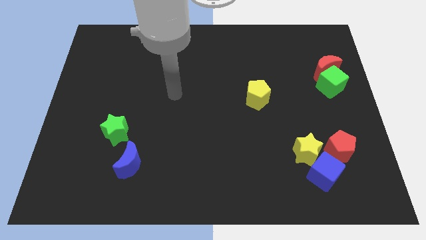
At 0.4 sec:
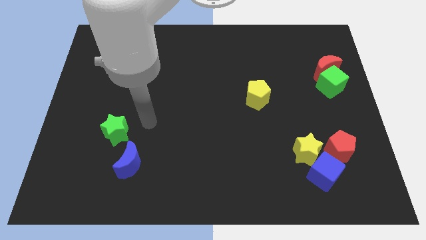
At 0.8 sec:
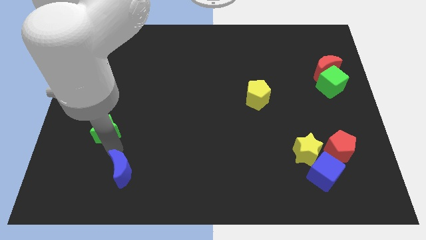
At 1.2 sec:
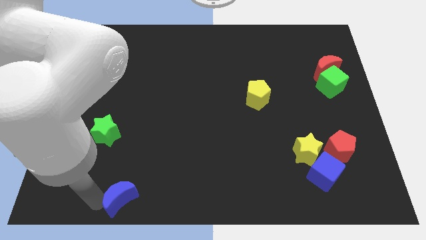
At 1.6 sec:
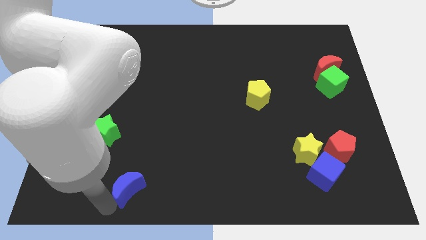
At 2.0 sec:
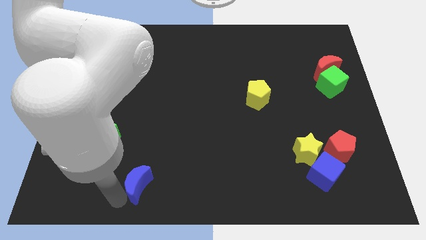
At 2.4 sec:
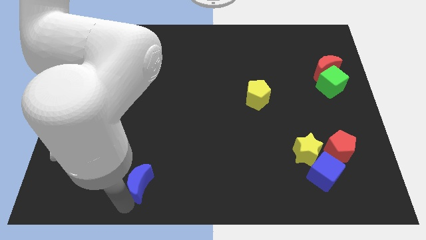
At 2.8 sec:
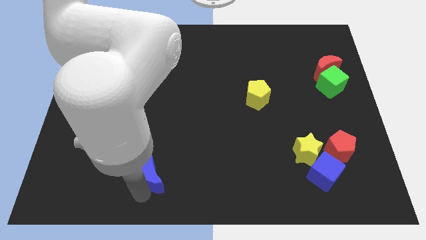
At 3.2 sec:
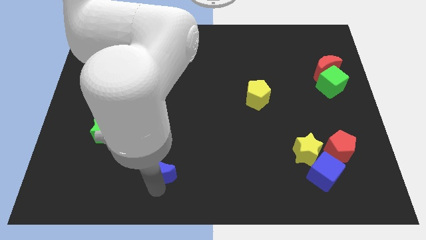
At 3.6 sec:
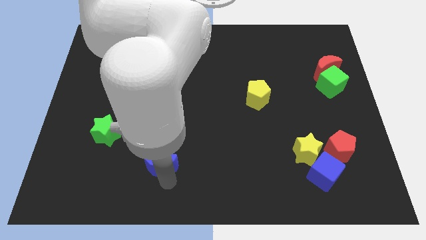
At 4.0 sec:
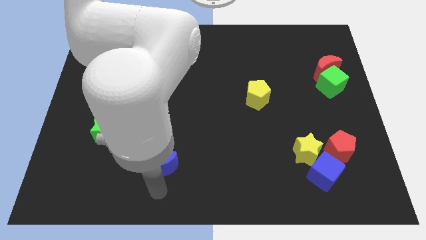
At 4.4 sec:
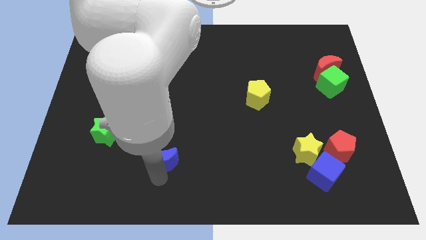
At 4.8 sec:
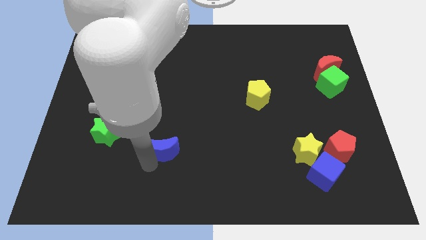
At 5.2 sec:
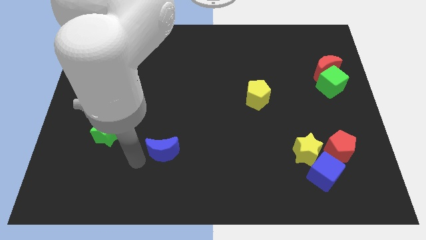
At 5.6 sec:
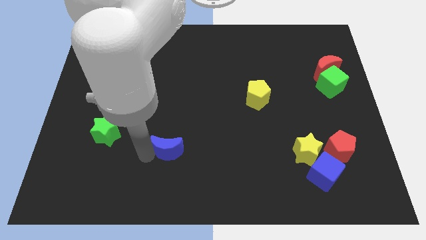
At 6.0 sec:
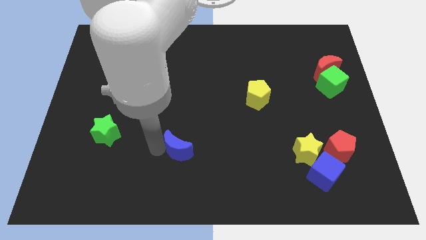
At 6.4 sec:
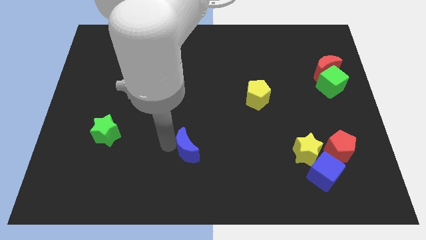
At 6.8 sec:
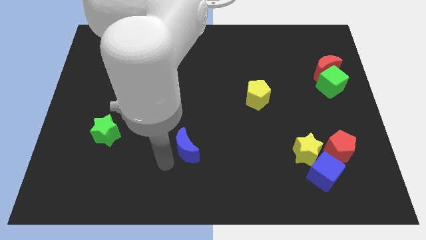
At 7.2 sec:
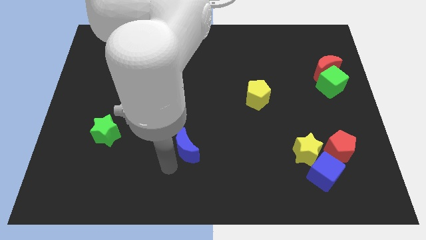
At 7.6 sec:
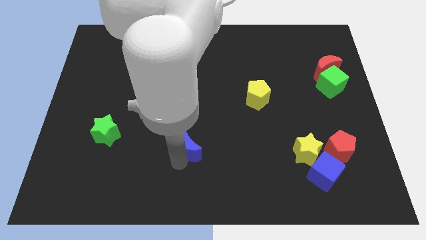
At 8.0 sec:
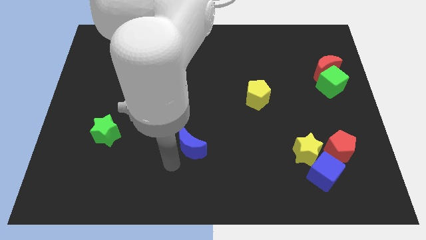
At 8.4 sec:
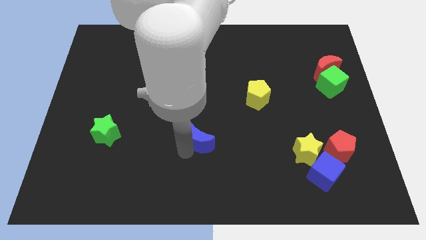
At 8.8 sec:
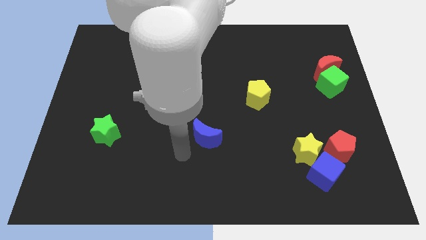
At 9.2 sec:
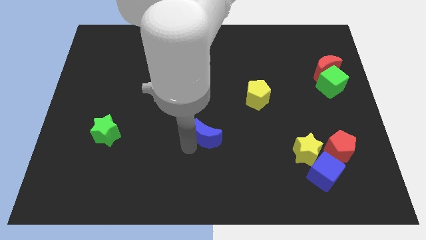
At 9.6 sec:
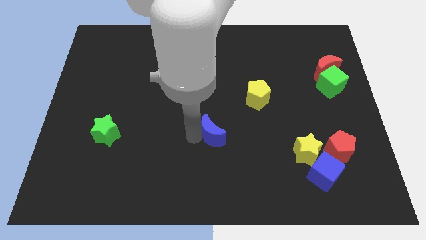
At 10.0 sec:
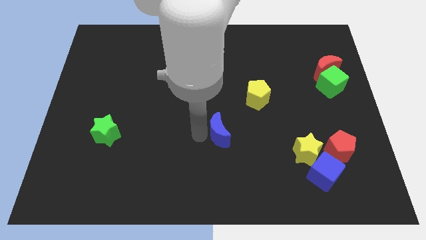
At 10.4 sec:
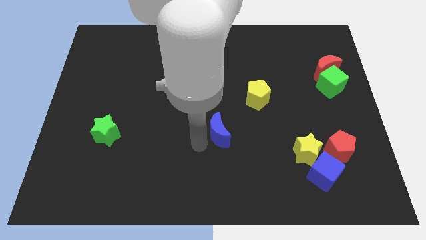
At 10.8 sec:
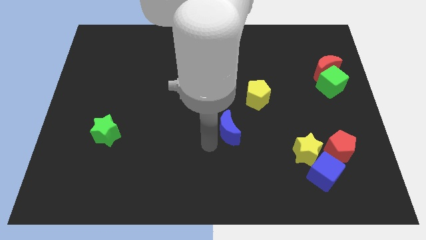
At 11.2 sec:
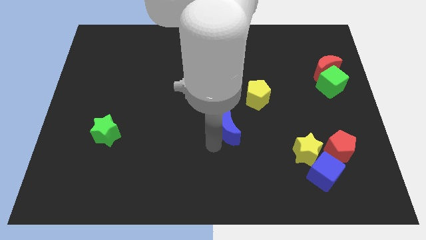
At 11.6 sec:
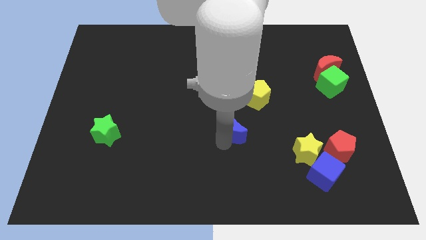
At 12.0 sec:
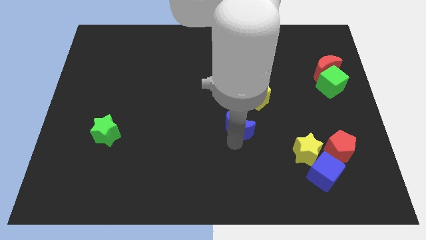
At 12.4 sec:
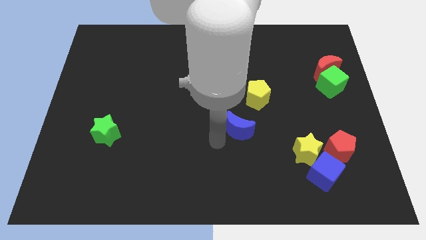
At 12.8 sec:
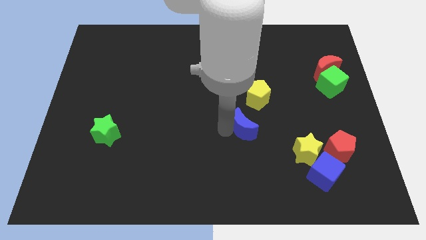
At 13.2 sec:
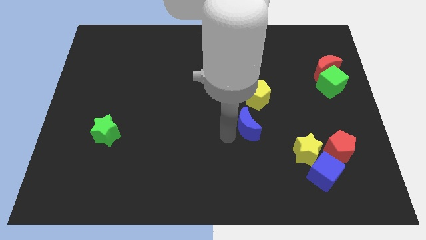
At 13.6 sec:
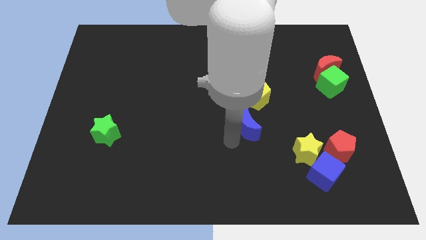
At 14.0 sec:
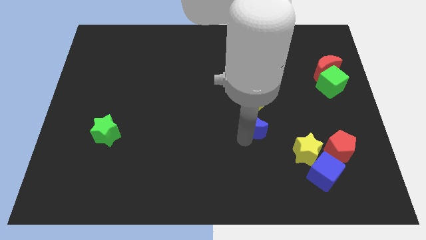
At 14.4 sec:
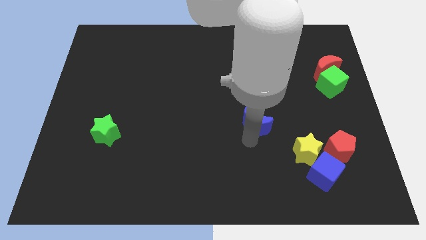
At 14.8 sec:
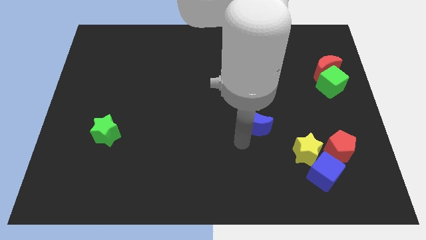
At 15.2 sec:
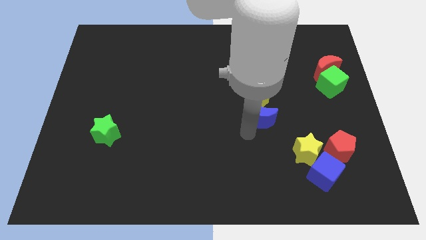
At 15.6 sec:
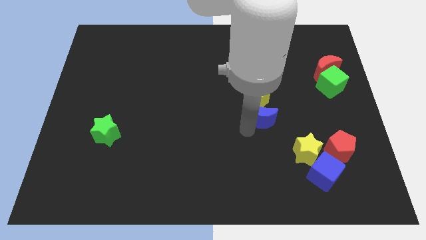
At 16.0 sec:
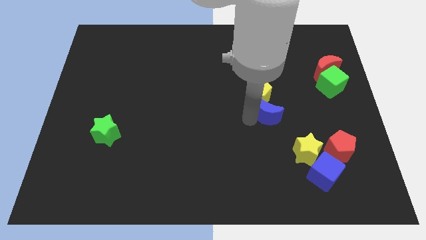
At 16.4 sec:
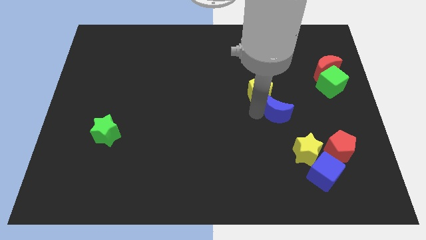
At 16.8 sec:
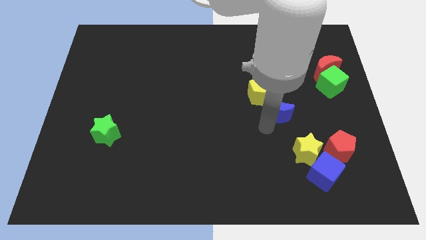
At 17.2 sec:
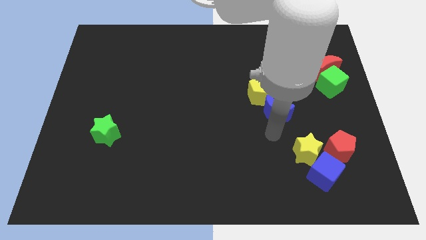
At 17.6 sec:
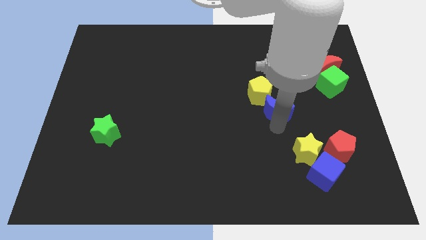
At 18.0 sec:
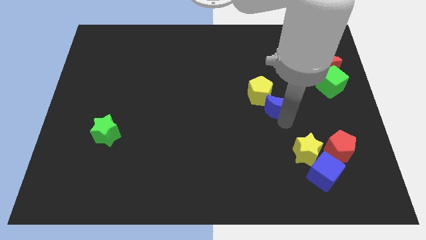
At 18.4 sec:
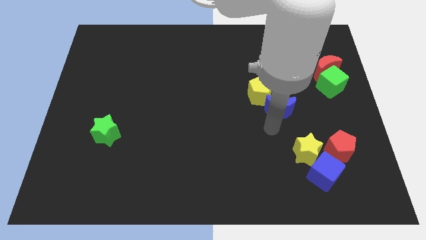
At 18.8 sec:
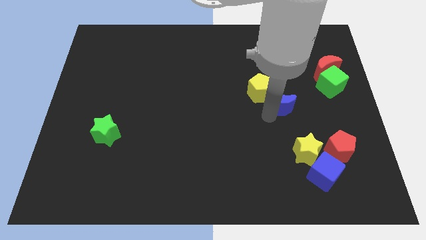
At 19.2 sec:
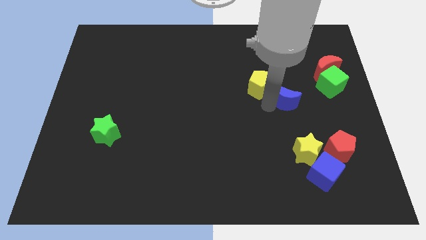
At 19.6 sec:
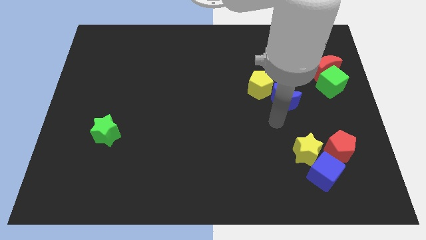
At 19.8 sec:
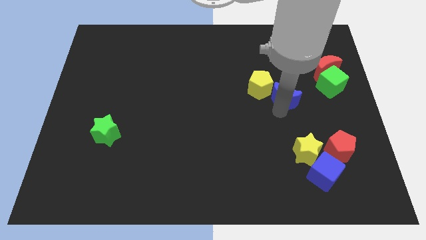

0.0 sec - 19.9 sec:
put the blue moon left of the green cube

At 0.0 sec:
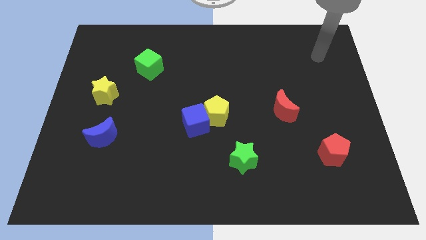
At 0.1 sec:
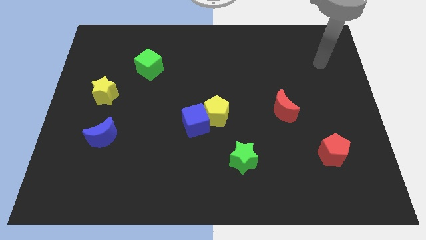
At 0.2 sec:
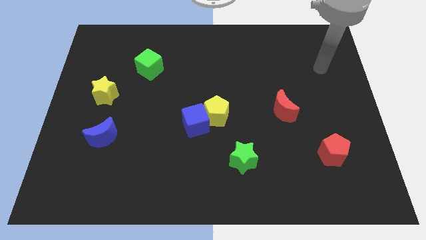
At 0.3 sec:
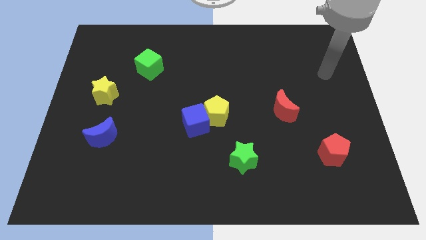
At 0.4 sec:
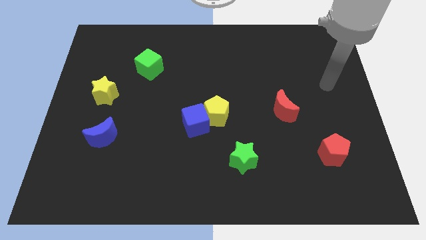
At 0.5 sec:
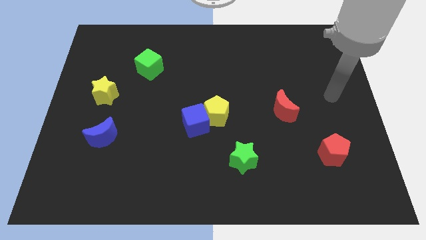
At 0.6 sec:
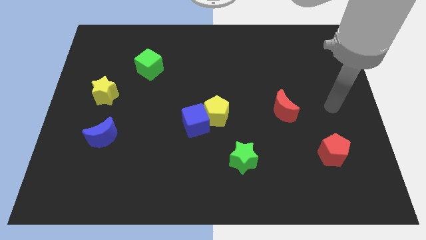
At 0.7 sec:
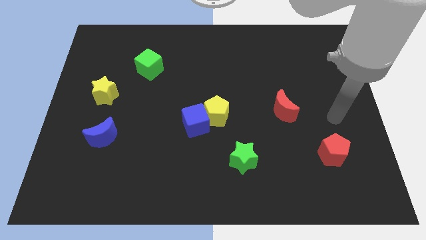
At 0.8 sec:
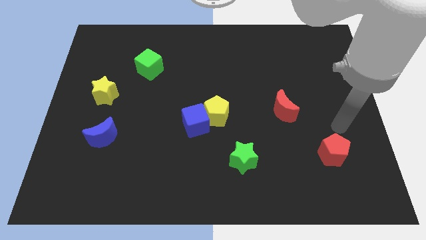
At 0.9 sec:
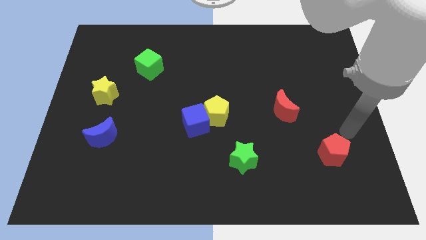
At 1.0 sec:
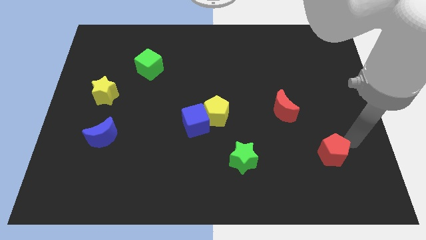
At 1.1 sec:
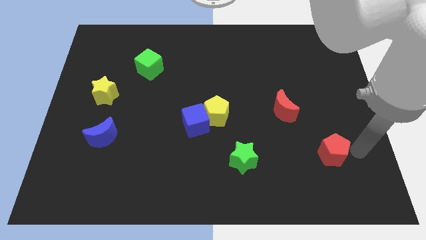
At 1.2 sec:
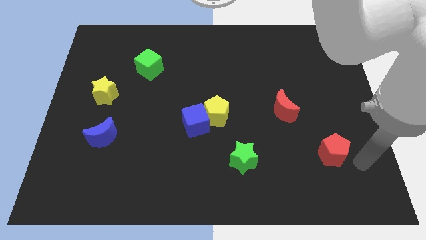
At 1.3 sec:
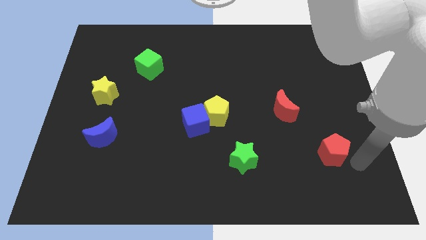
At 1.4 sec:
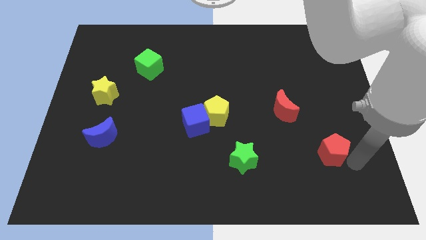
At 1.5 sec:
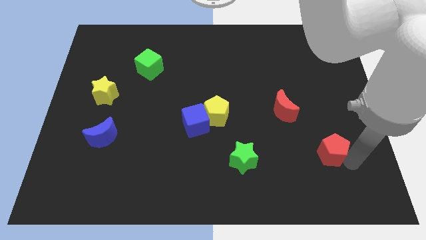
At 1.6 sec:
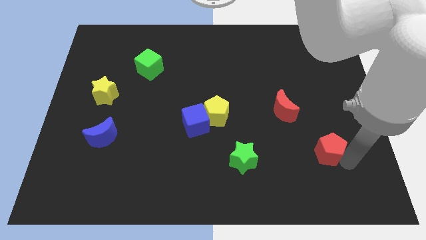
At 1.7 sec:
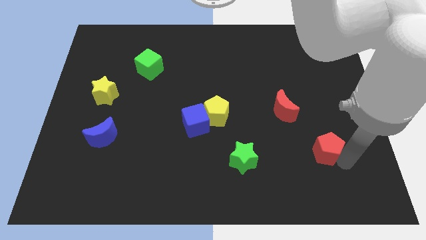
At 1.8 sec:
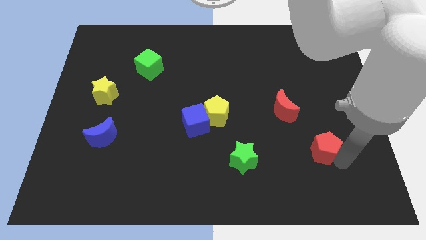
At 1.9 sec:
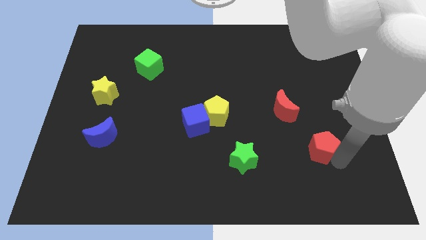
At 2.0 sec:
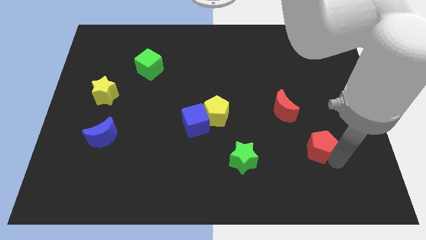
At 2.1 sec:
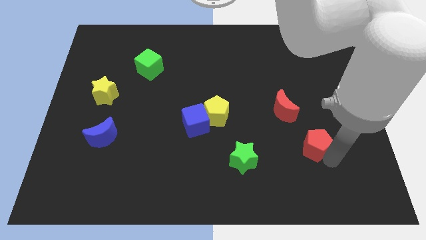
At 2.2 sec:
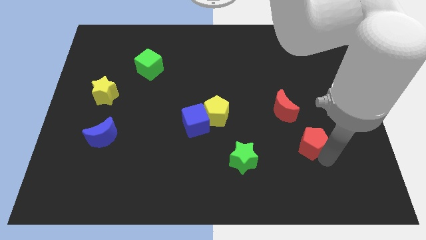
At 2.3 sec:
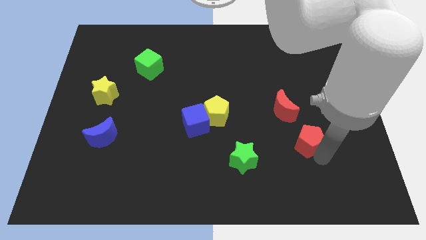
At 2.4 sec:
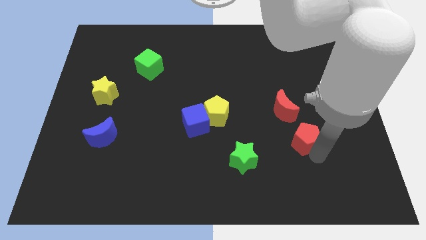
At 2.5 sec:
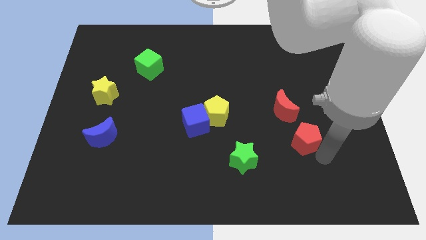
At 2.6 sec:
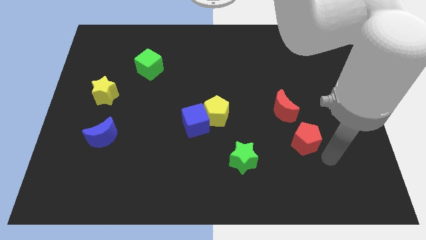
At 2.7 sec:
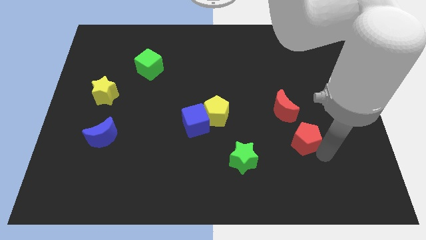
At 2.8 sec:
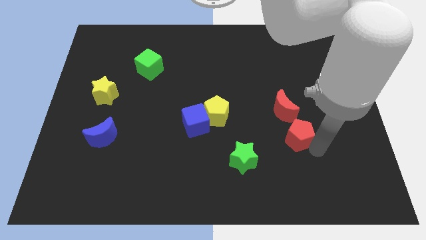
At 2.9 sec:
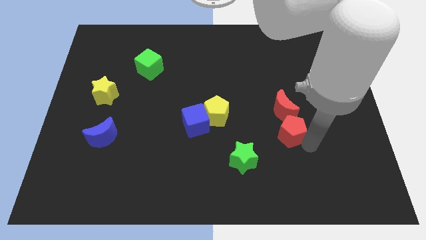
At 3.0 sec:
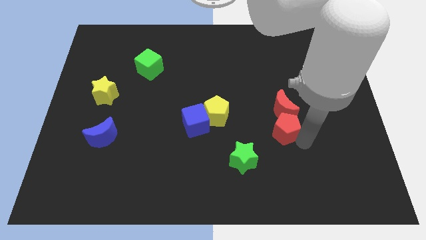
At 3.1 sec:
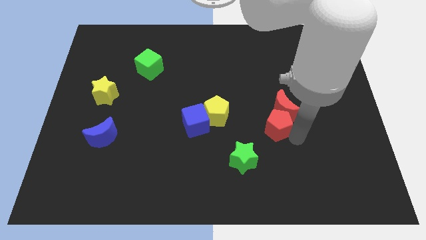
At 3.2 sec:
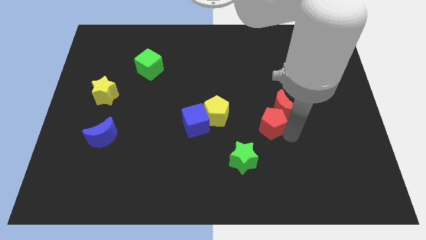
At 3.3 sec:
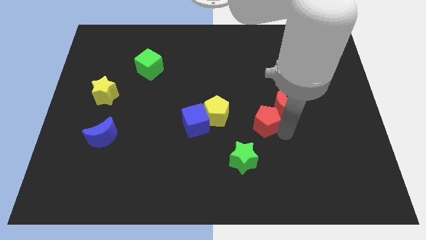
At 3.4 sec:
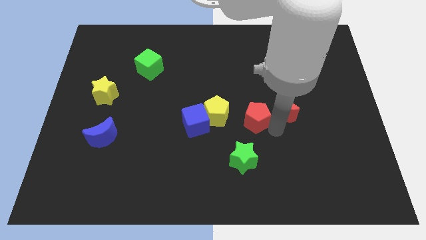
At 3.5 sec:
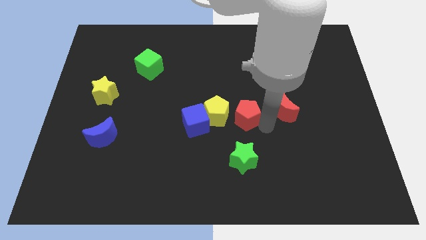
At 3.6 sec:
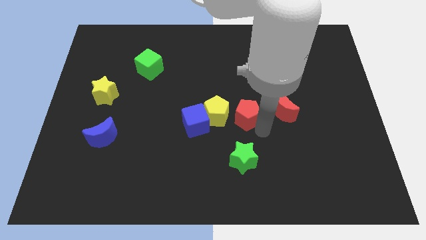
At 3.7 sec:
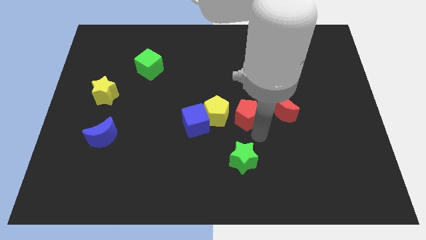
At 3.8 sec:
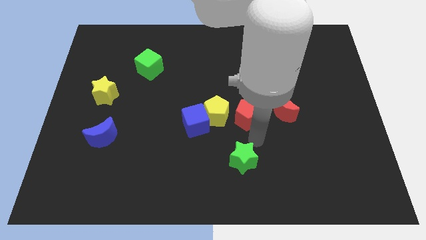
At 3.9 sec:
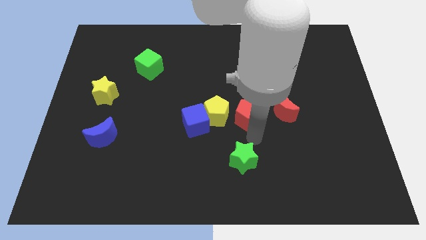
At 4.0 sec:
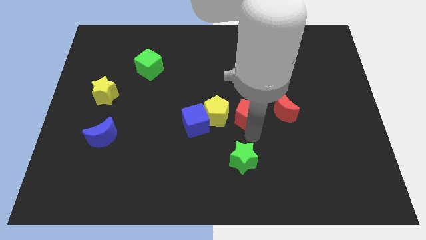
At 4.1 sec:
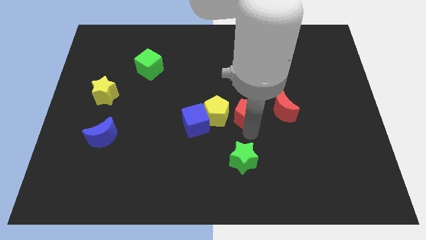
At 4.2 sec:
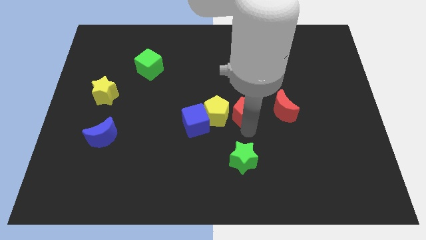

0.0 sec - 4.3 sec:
push the red pentagon diagonally up and to the right of the yellow pentagon
